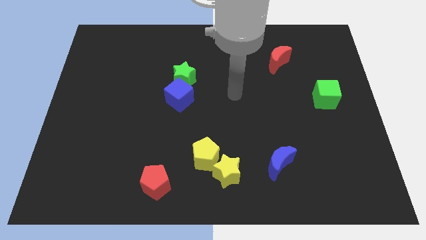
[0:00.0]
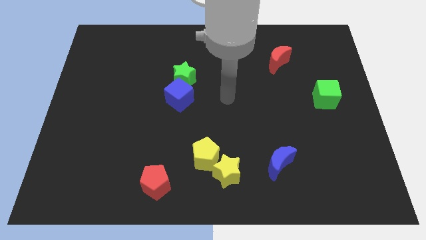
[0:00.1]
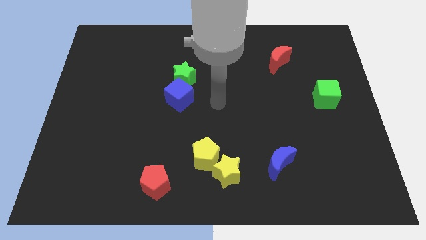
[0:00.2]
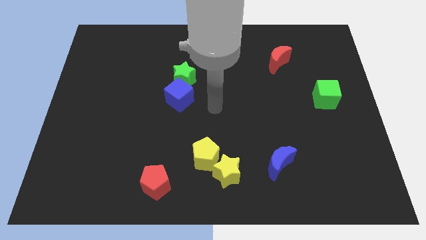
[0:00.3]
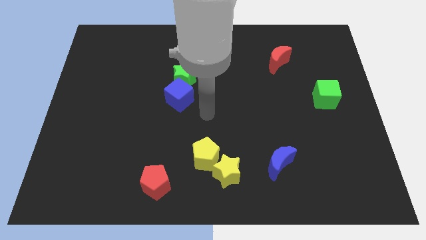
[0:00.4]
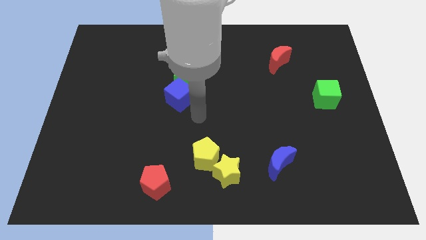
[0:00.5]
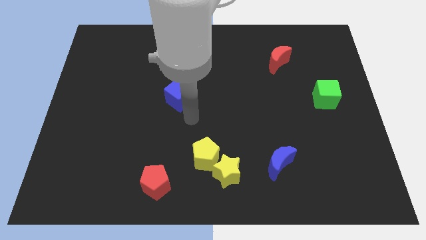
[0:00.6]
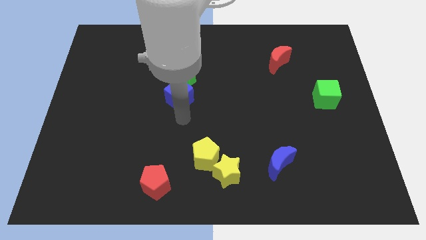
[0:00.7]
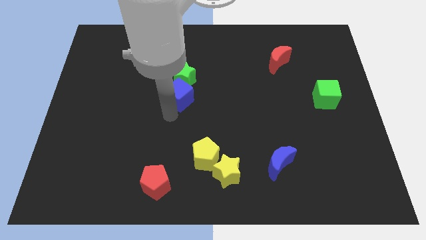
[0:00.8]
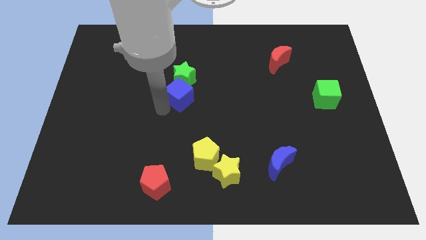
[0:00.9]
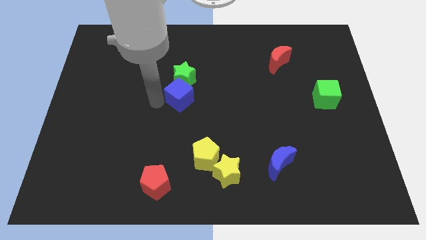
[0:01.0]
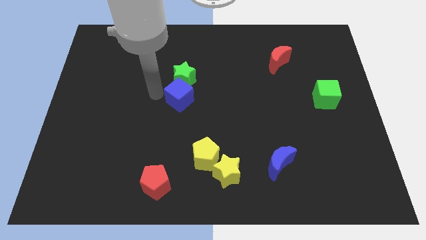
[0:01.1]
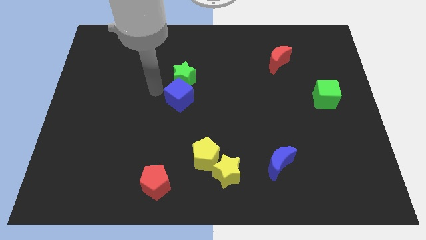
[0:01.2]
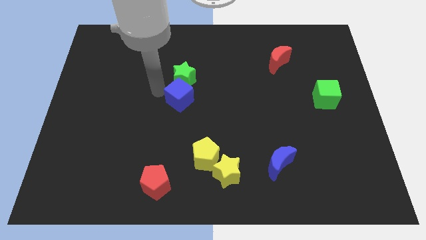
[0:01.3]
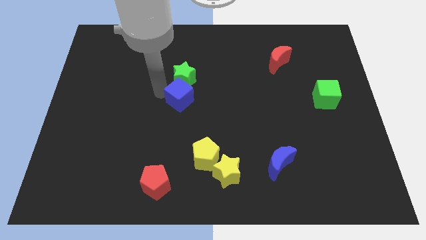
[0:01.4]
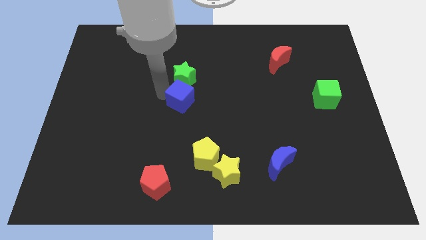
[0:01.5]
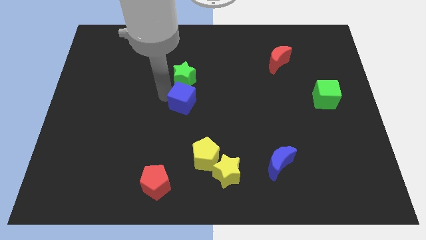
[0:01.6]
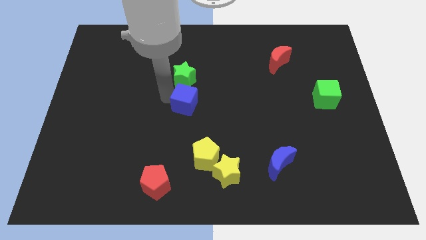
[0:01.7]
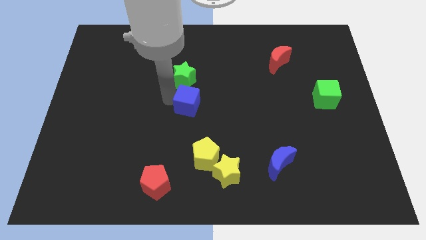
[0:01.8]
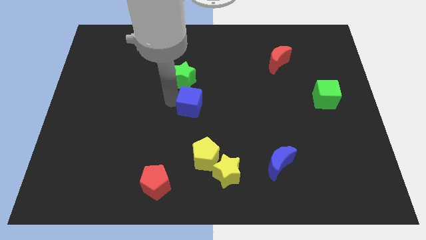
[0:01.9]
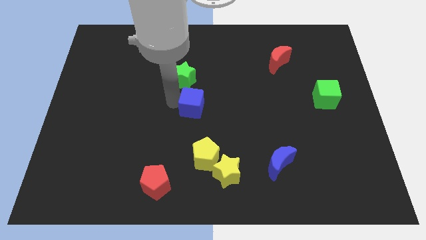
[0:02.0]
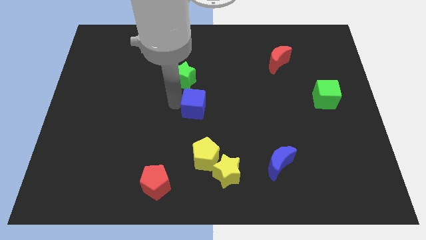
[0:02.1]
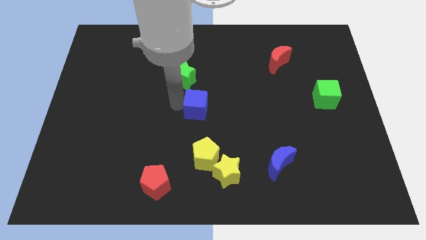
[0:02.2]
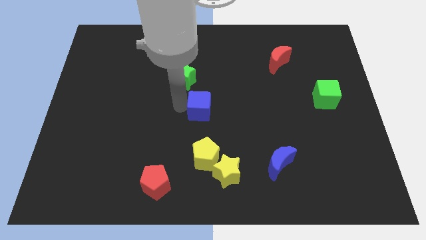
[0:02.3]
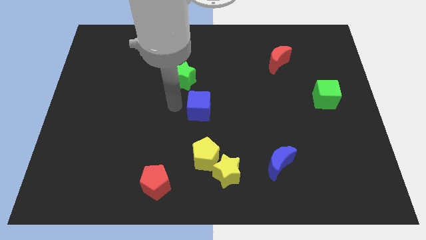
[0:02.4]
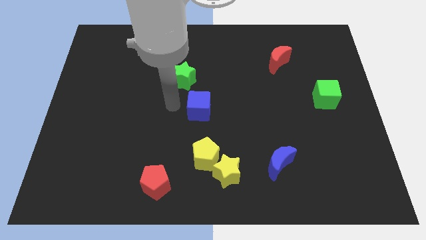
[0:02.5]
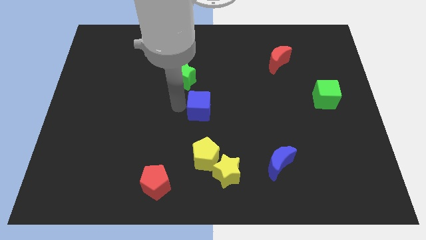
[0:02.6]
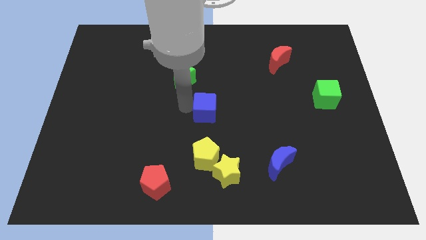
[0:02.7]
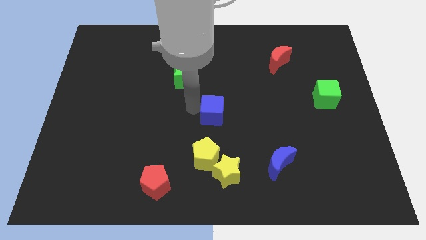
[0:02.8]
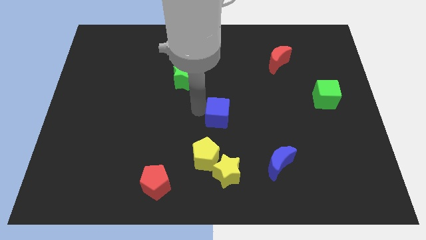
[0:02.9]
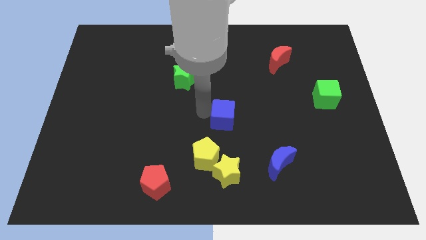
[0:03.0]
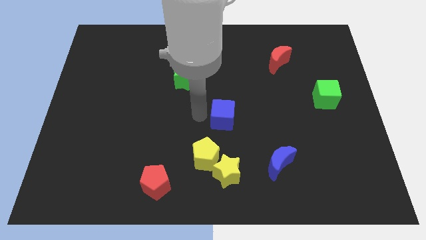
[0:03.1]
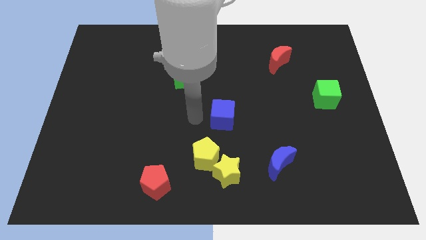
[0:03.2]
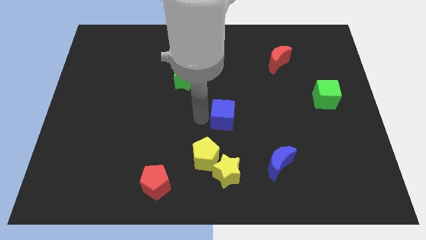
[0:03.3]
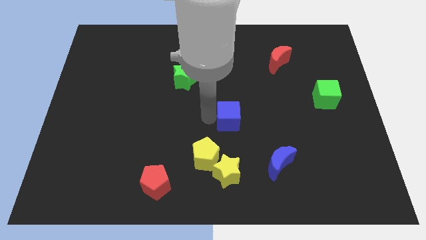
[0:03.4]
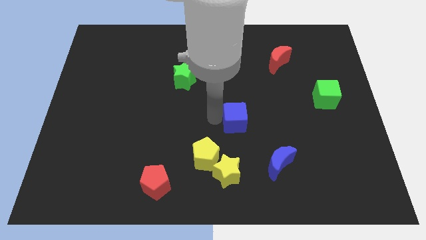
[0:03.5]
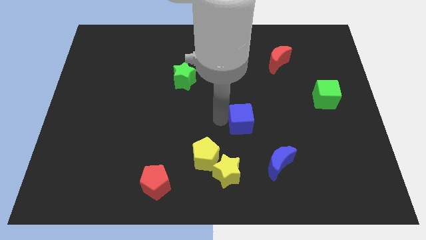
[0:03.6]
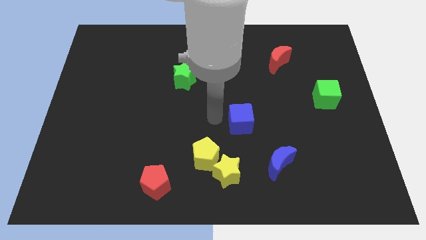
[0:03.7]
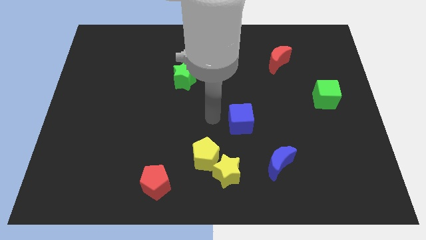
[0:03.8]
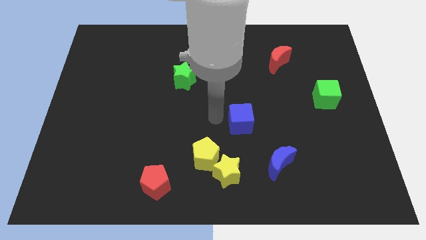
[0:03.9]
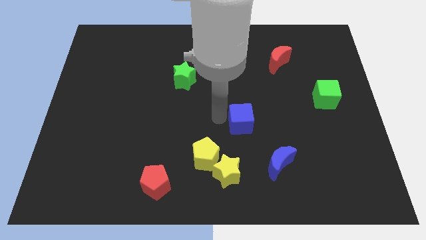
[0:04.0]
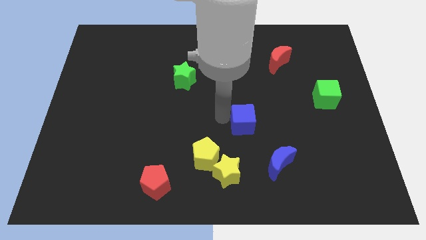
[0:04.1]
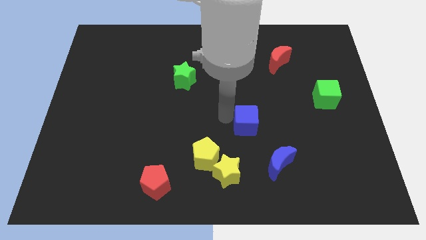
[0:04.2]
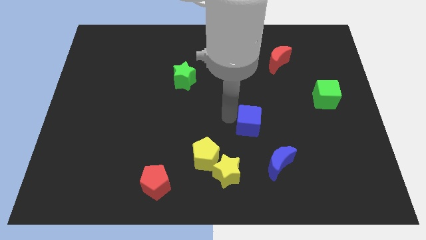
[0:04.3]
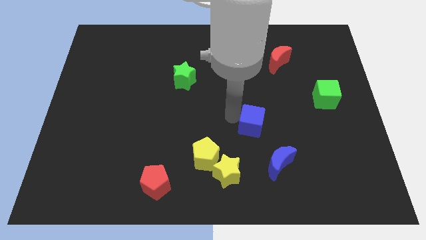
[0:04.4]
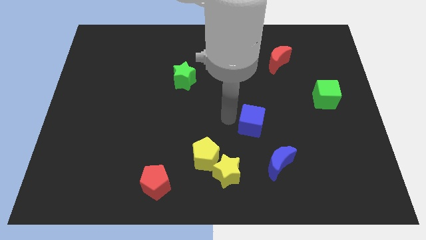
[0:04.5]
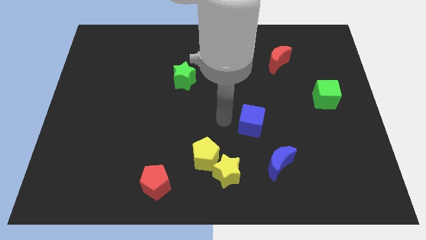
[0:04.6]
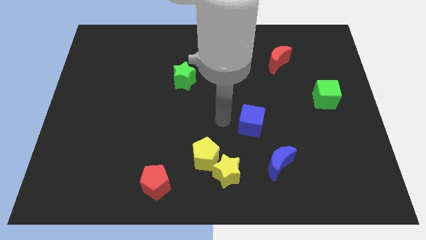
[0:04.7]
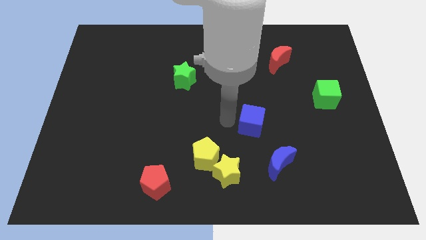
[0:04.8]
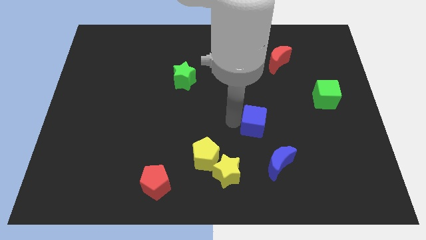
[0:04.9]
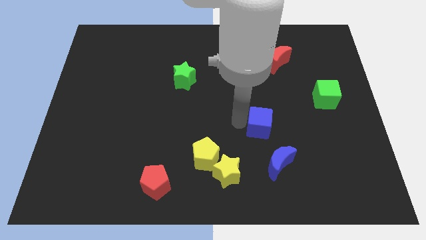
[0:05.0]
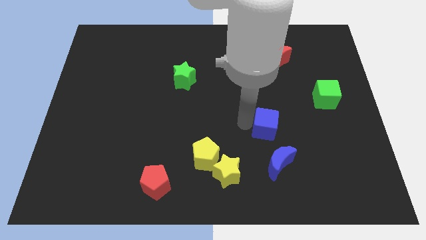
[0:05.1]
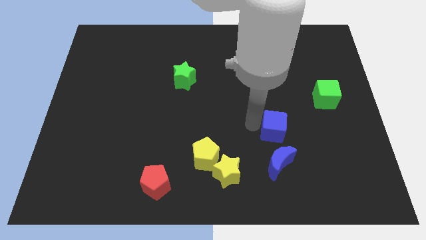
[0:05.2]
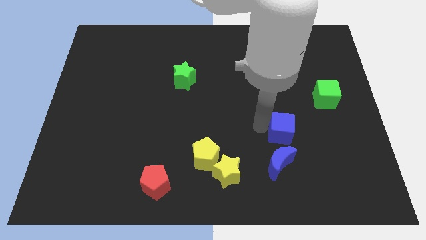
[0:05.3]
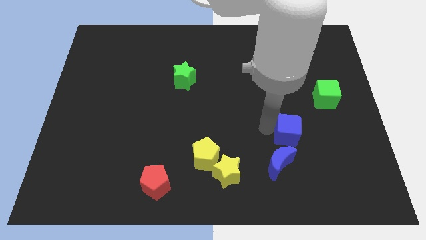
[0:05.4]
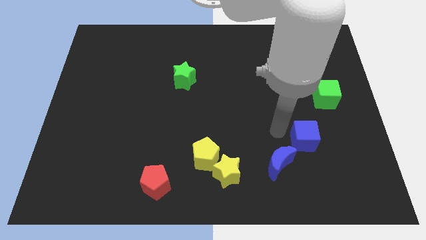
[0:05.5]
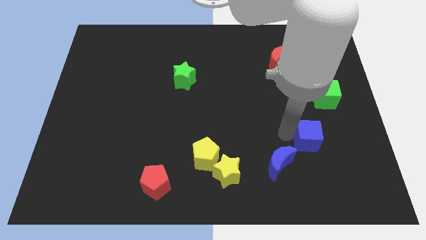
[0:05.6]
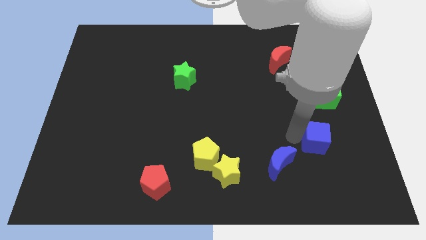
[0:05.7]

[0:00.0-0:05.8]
put the blue cube to the bottom side of the green cube

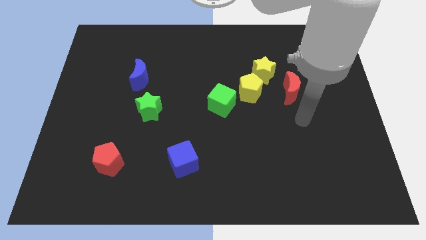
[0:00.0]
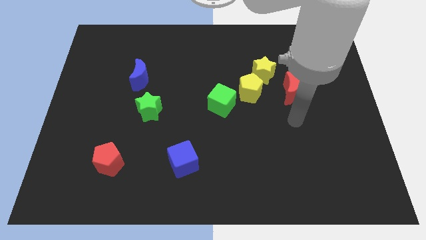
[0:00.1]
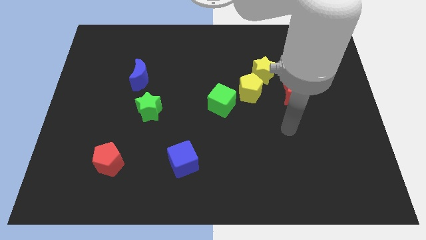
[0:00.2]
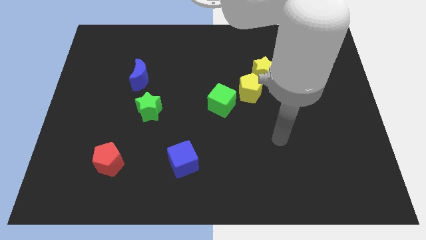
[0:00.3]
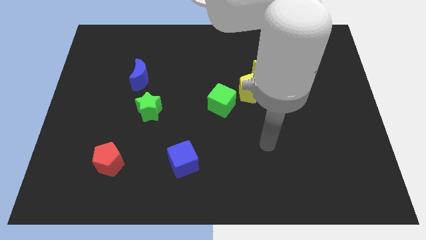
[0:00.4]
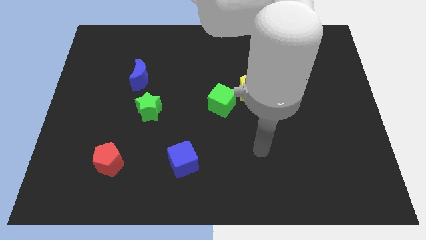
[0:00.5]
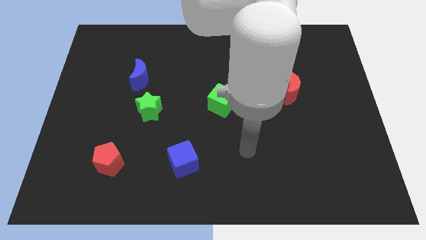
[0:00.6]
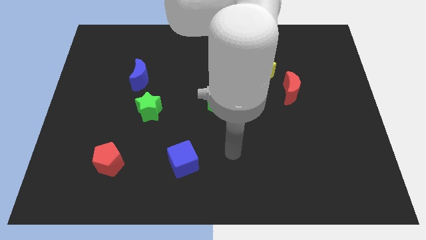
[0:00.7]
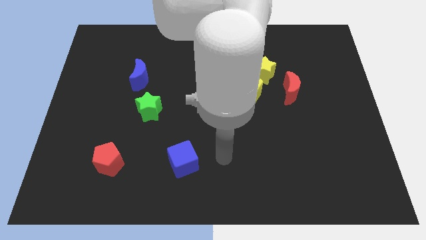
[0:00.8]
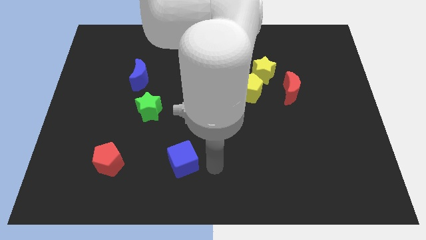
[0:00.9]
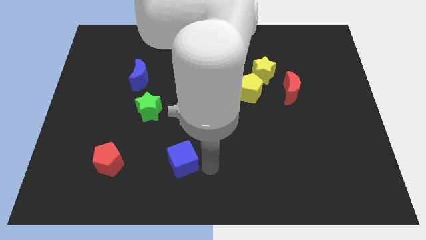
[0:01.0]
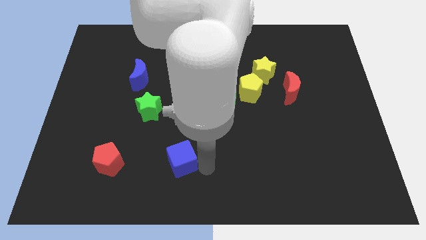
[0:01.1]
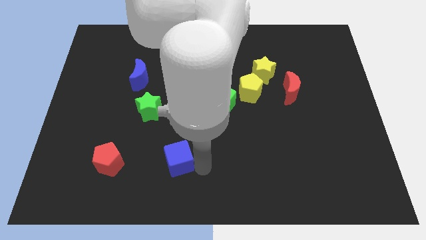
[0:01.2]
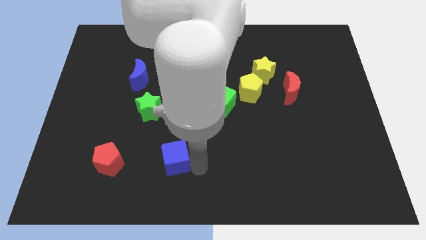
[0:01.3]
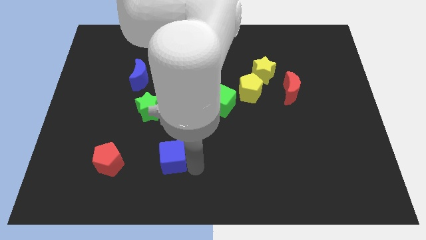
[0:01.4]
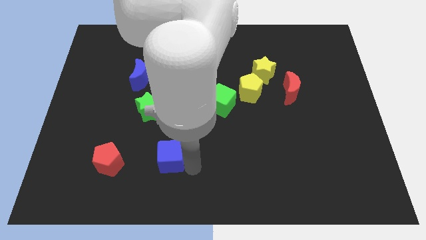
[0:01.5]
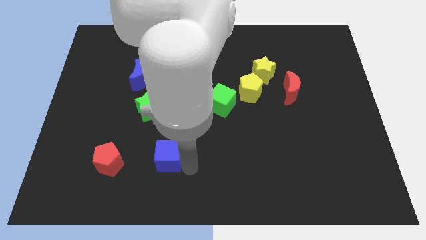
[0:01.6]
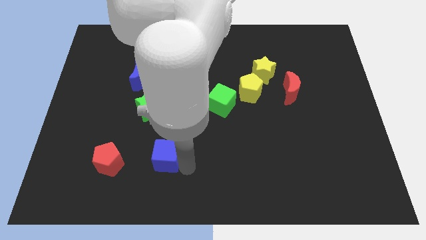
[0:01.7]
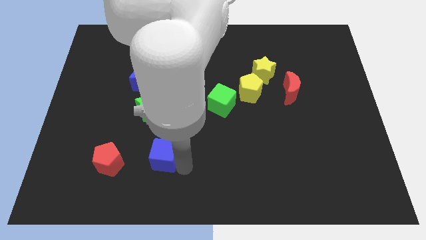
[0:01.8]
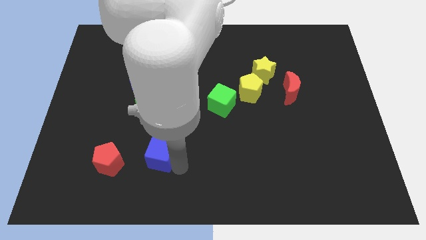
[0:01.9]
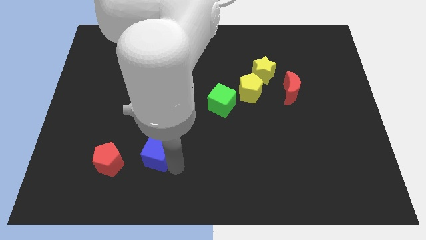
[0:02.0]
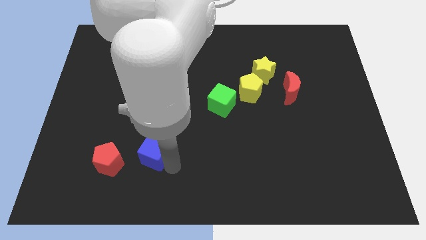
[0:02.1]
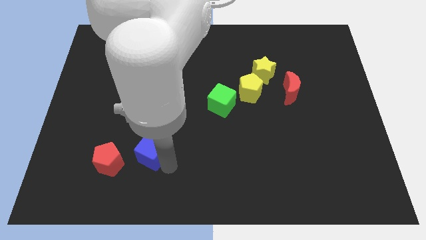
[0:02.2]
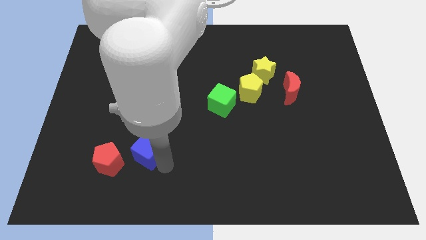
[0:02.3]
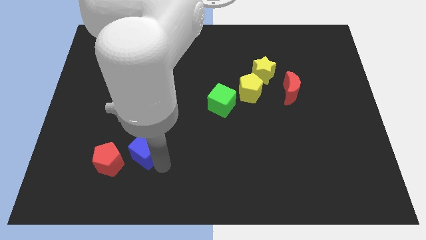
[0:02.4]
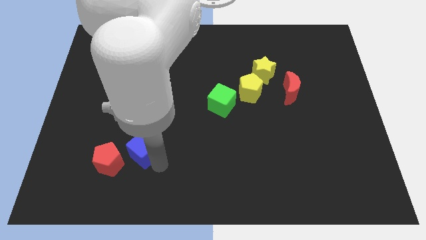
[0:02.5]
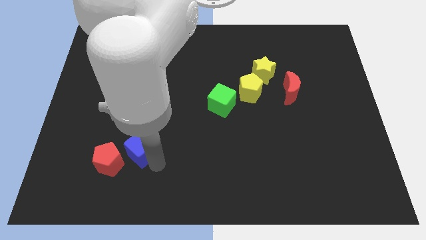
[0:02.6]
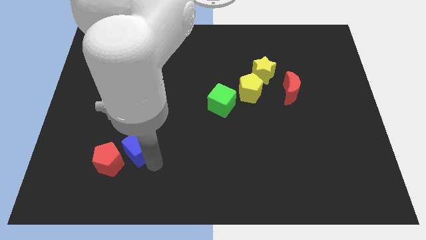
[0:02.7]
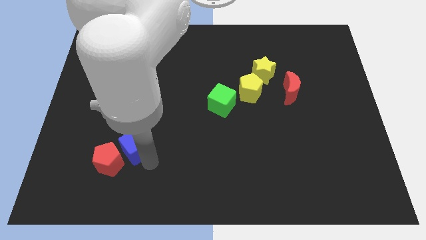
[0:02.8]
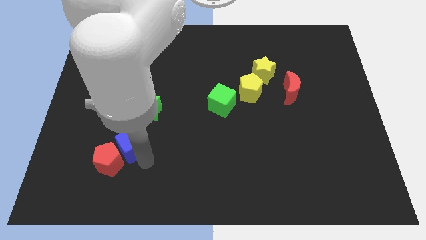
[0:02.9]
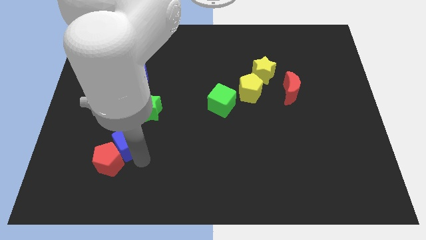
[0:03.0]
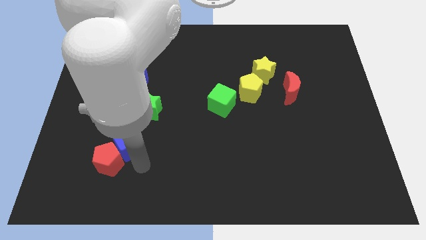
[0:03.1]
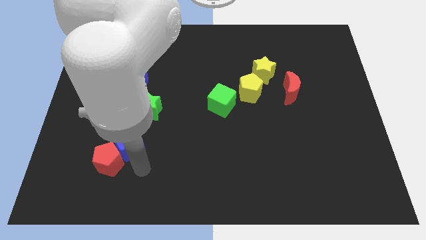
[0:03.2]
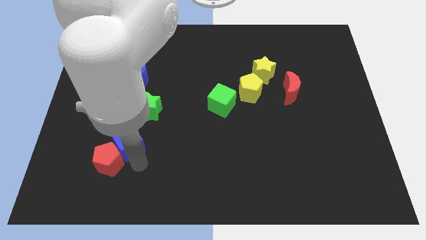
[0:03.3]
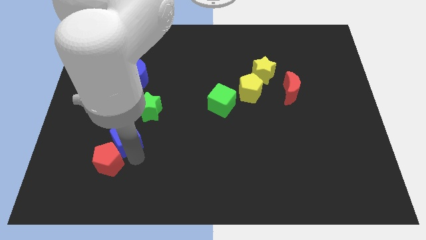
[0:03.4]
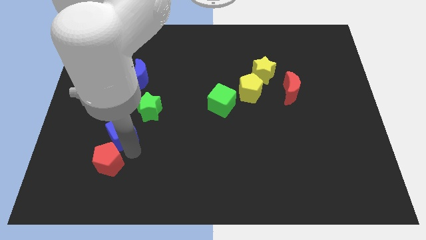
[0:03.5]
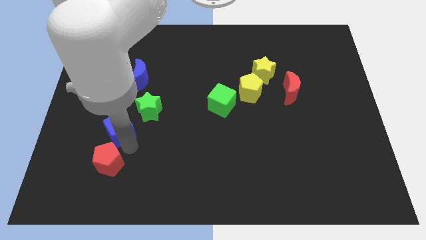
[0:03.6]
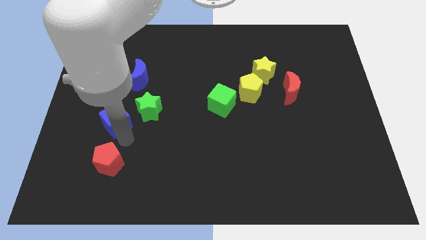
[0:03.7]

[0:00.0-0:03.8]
put the blue cube just left of the green star
